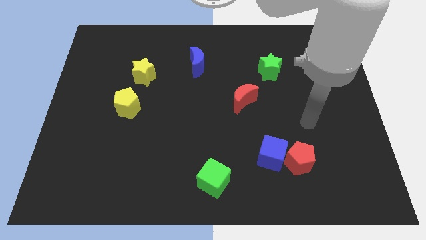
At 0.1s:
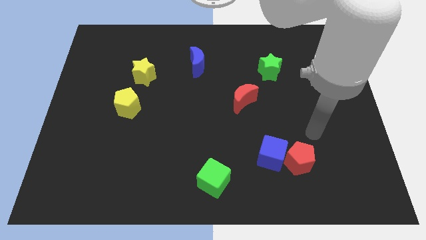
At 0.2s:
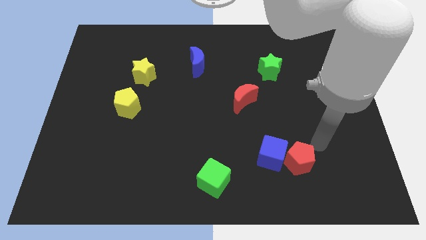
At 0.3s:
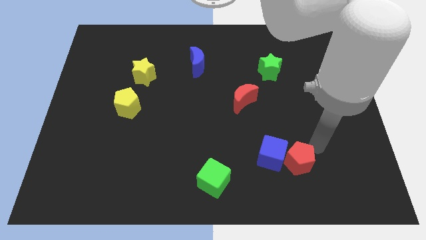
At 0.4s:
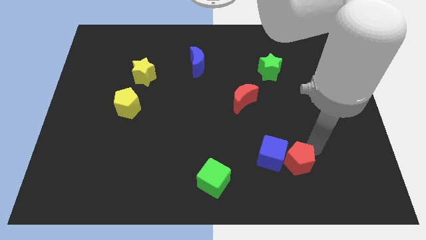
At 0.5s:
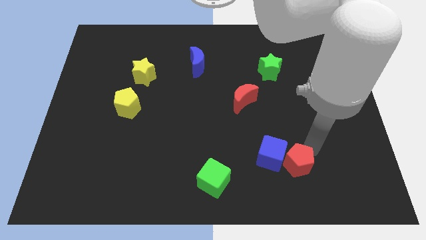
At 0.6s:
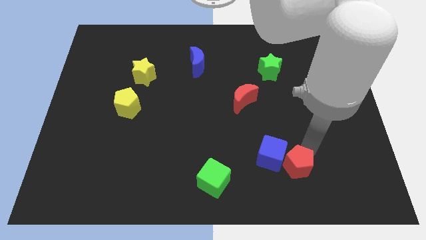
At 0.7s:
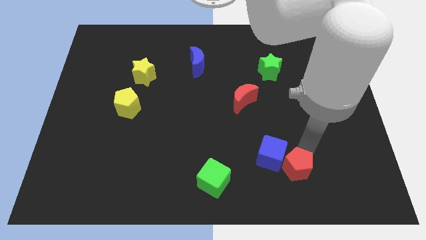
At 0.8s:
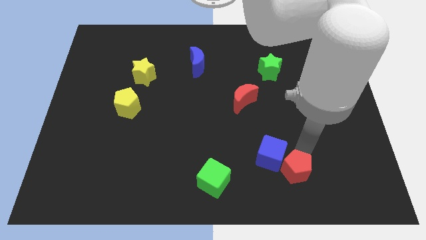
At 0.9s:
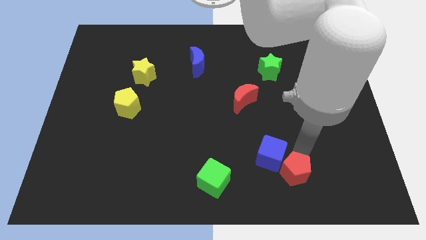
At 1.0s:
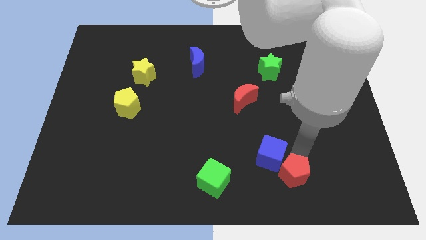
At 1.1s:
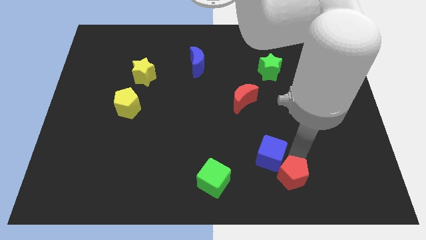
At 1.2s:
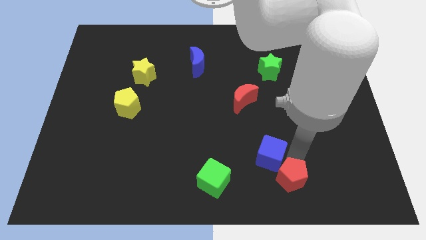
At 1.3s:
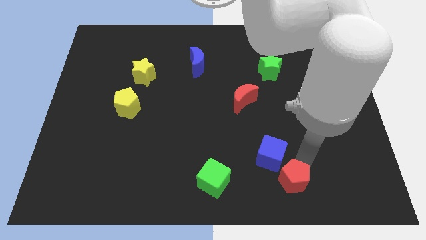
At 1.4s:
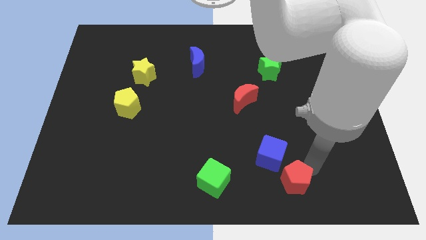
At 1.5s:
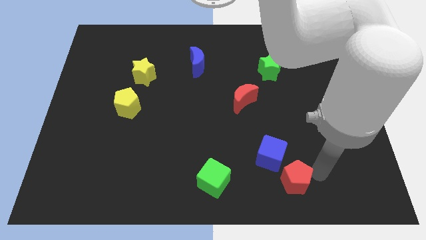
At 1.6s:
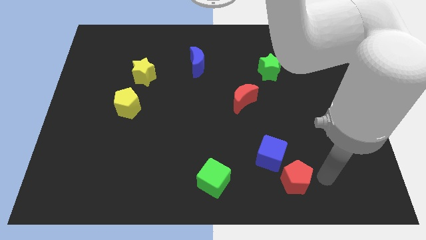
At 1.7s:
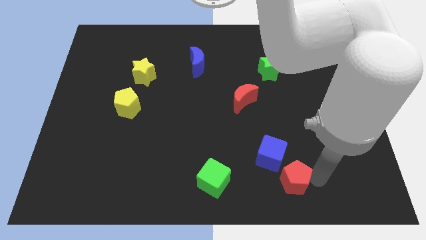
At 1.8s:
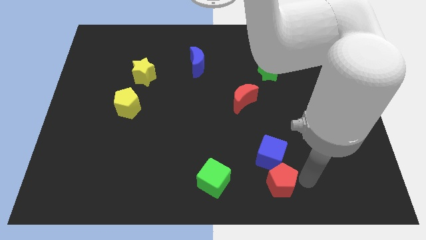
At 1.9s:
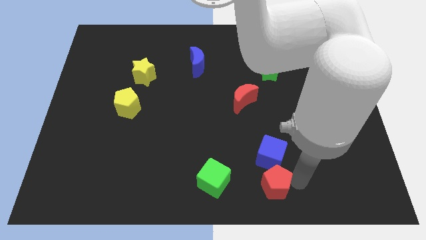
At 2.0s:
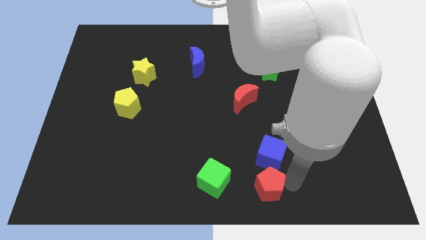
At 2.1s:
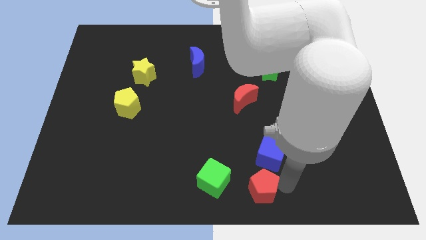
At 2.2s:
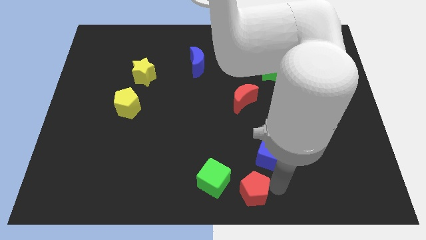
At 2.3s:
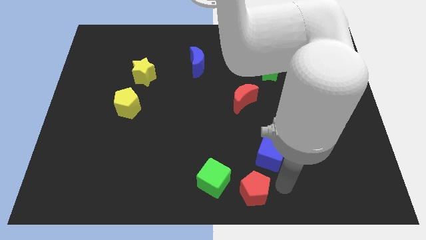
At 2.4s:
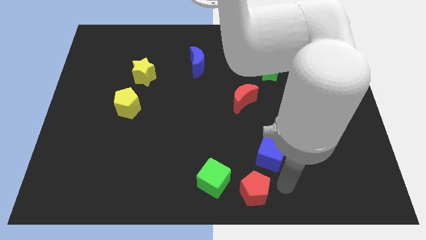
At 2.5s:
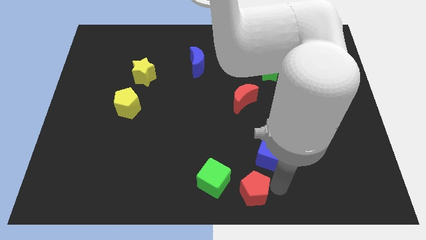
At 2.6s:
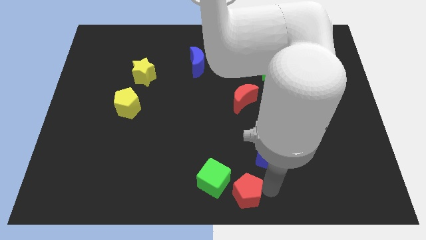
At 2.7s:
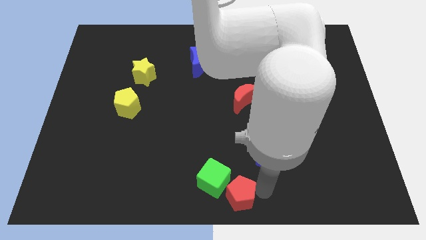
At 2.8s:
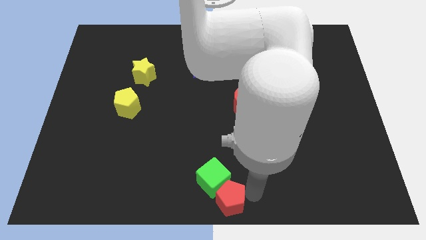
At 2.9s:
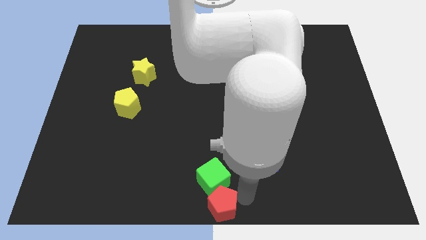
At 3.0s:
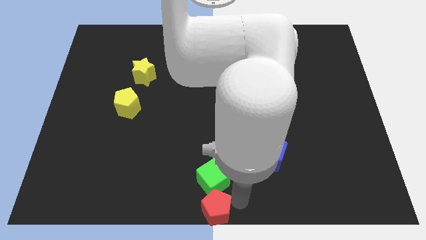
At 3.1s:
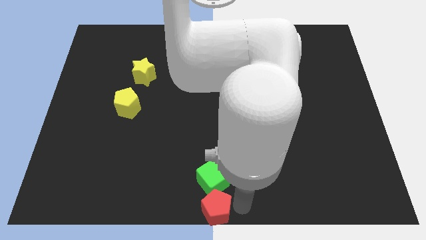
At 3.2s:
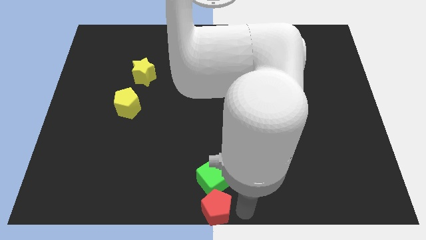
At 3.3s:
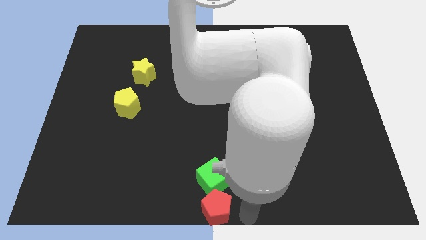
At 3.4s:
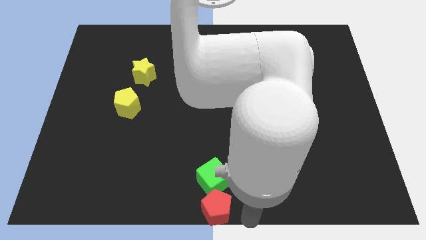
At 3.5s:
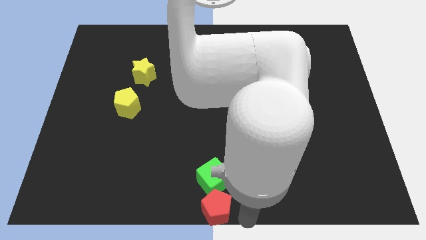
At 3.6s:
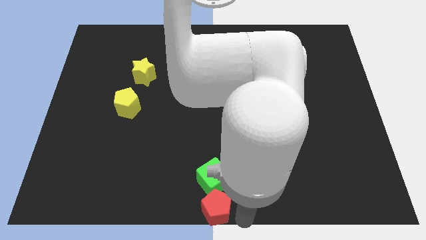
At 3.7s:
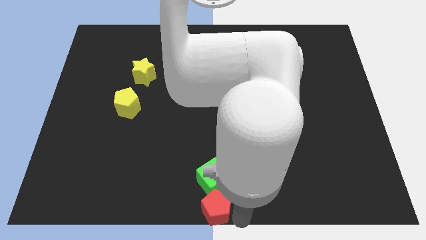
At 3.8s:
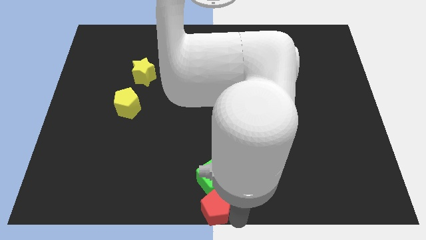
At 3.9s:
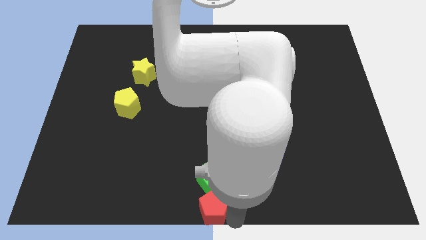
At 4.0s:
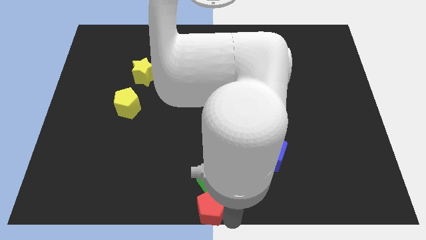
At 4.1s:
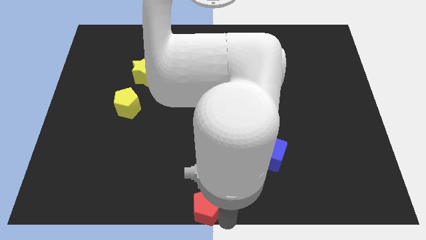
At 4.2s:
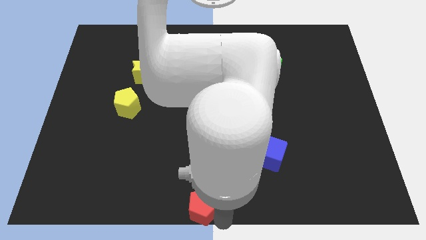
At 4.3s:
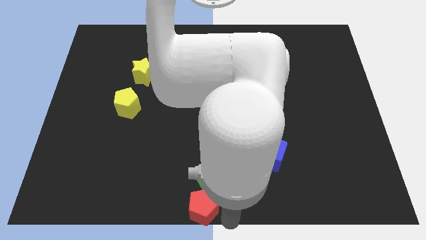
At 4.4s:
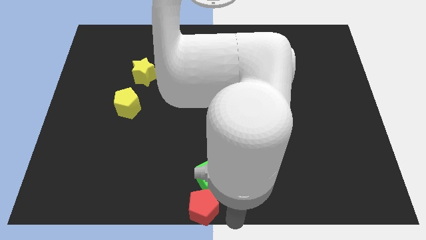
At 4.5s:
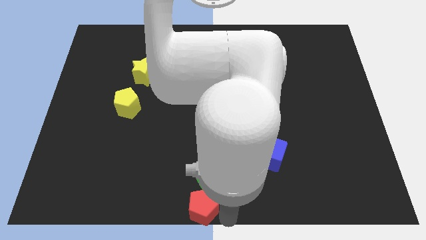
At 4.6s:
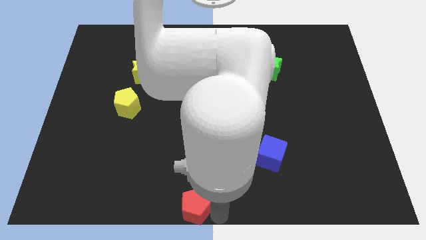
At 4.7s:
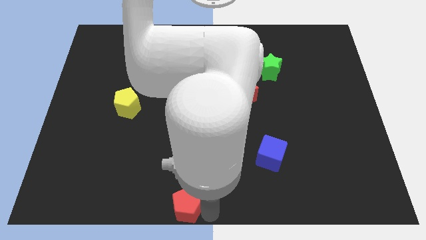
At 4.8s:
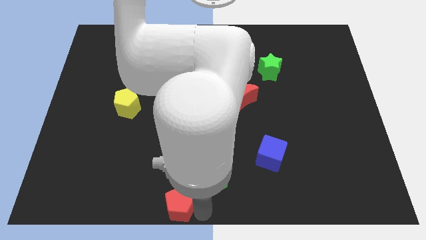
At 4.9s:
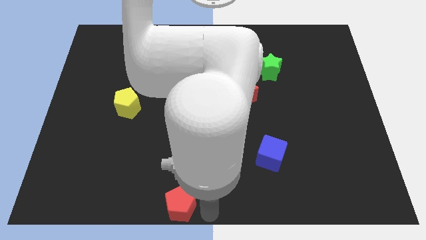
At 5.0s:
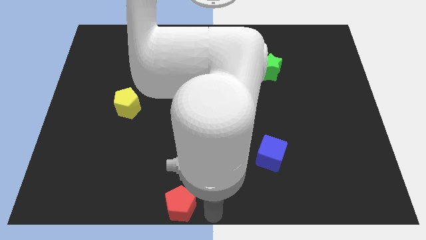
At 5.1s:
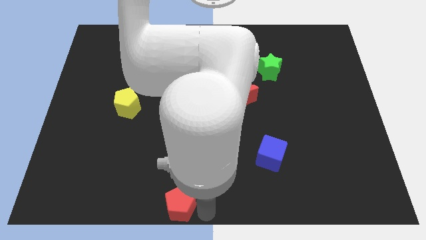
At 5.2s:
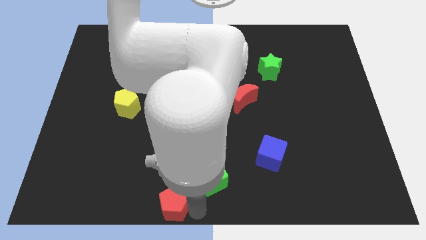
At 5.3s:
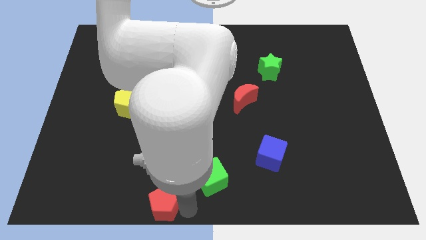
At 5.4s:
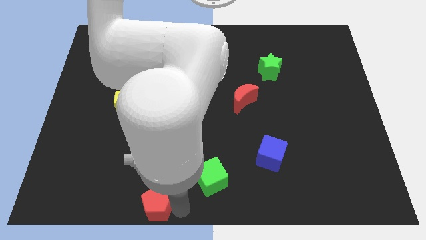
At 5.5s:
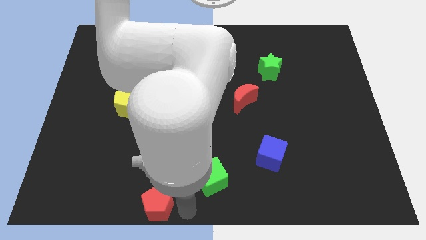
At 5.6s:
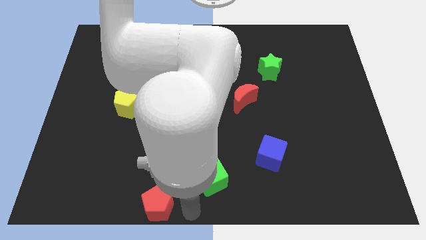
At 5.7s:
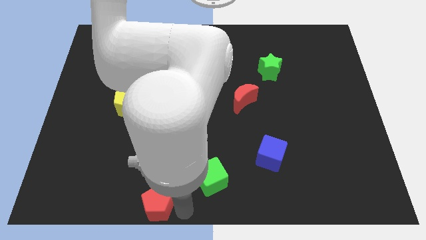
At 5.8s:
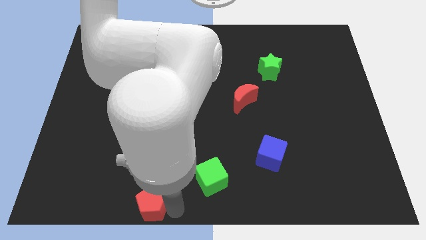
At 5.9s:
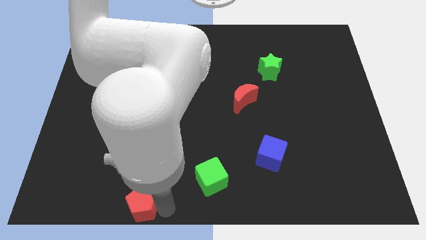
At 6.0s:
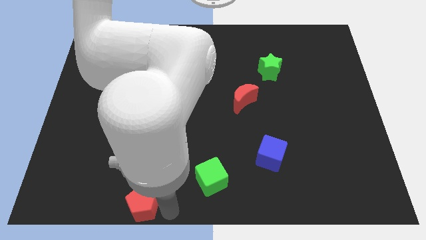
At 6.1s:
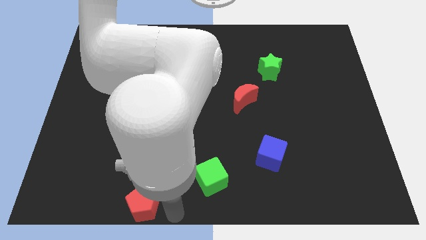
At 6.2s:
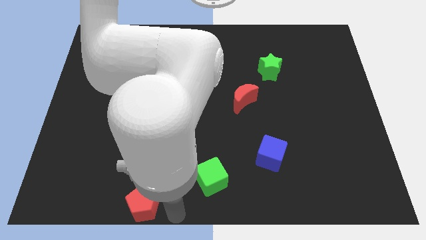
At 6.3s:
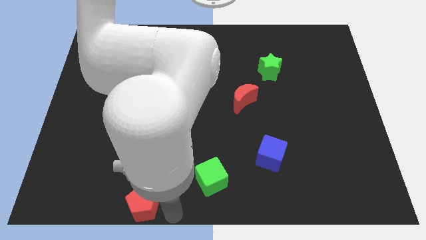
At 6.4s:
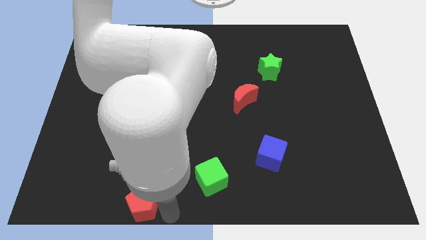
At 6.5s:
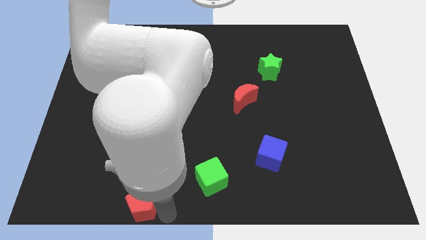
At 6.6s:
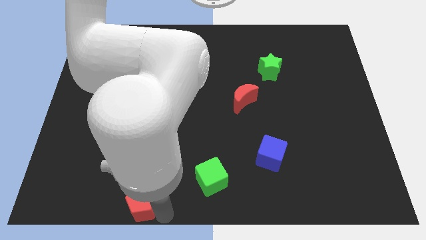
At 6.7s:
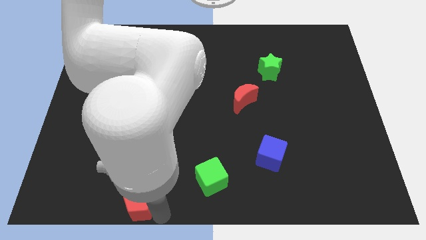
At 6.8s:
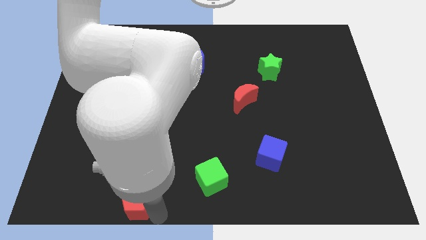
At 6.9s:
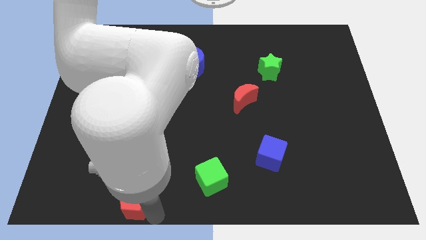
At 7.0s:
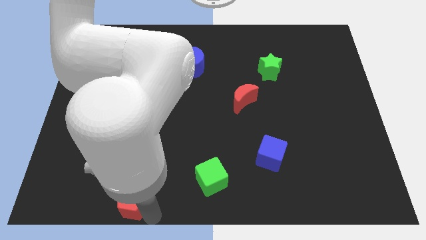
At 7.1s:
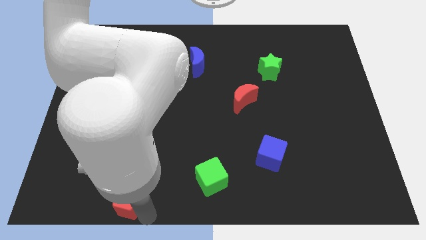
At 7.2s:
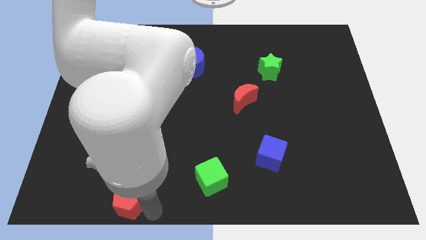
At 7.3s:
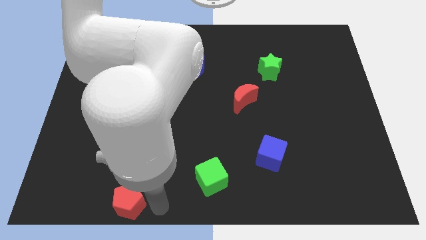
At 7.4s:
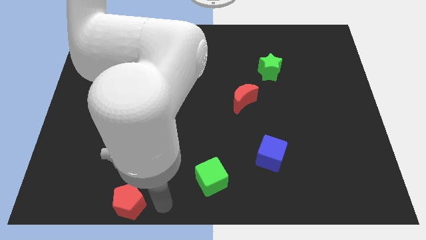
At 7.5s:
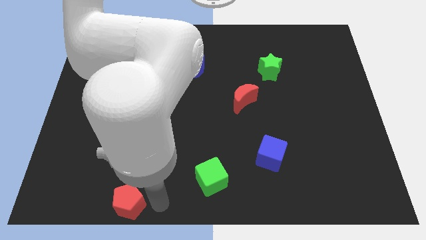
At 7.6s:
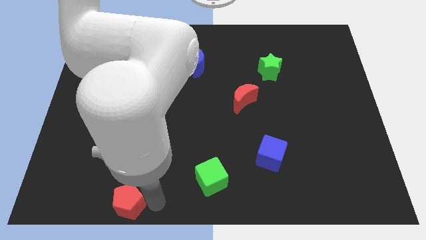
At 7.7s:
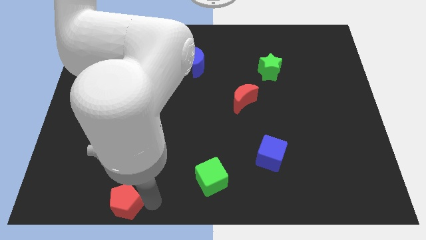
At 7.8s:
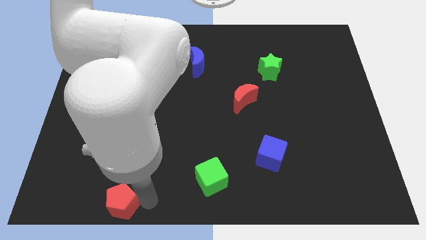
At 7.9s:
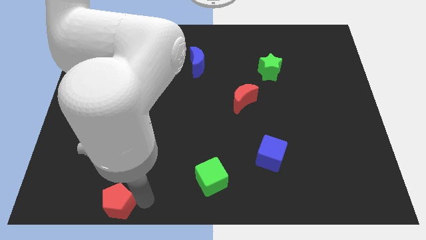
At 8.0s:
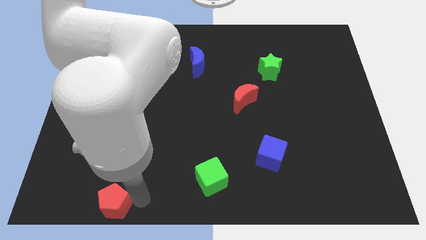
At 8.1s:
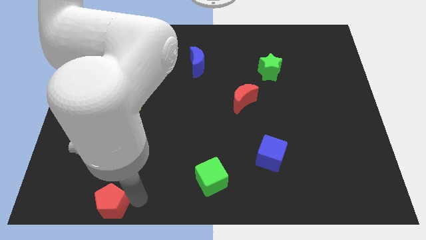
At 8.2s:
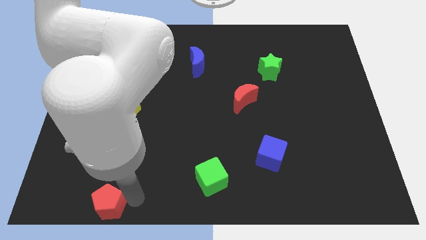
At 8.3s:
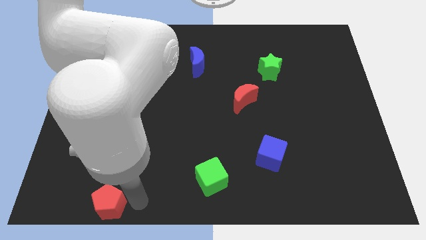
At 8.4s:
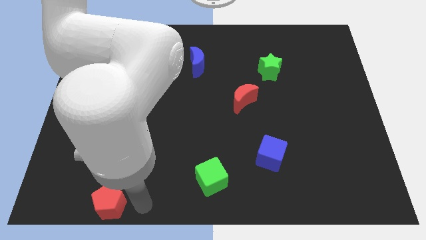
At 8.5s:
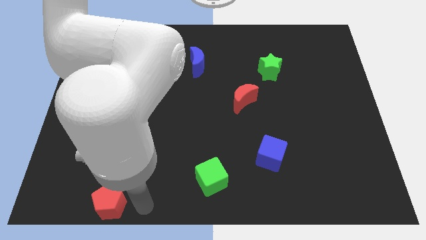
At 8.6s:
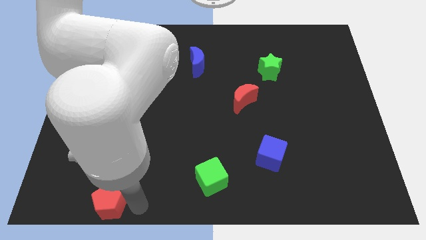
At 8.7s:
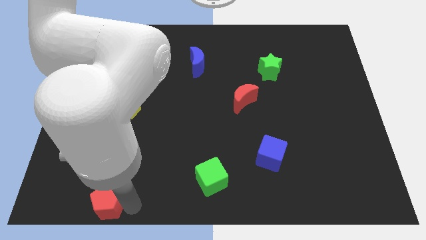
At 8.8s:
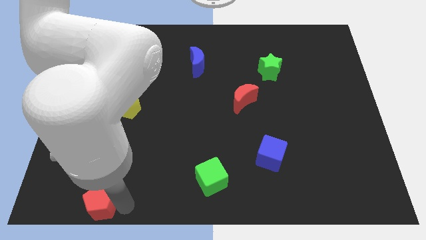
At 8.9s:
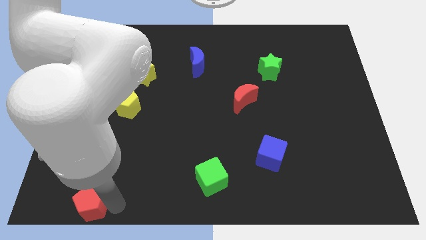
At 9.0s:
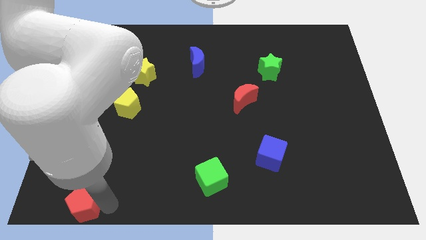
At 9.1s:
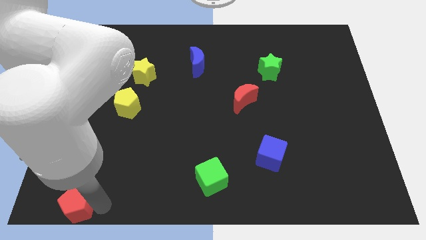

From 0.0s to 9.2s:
move the red pentagon to the bottom left
